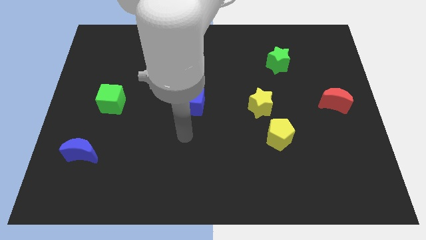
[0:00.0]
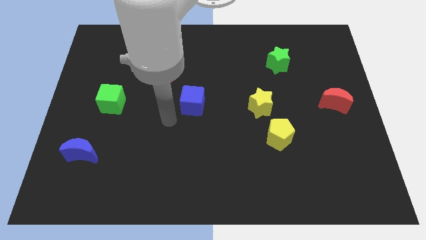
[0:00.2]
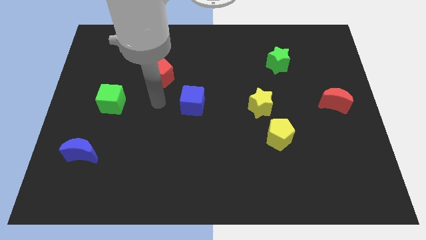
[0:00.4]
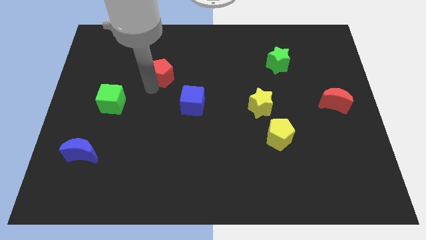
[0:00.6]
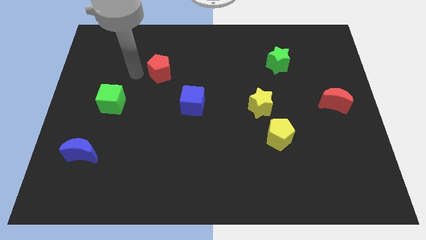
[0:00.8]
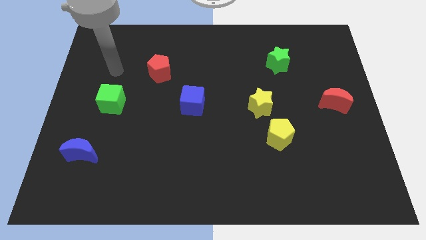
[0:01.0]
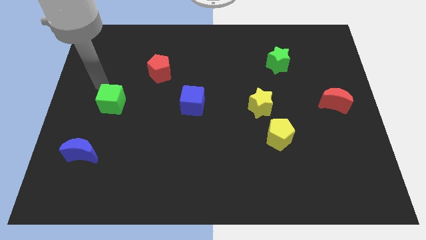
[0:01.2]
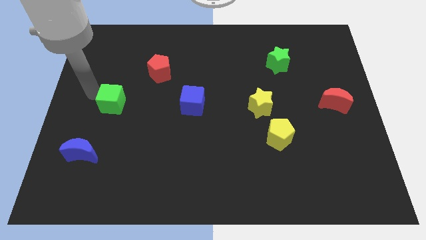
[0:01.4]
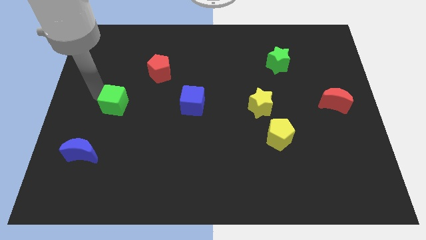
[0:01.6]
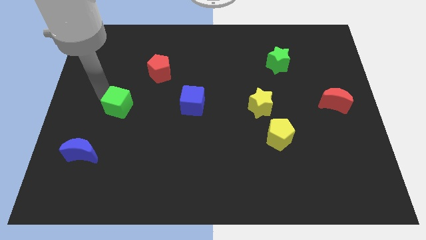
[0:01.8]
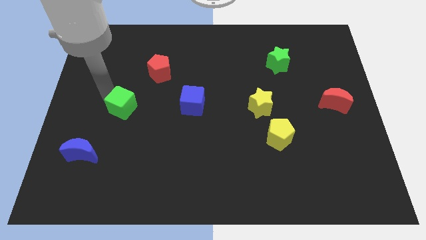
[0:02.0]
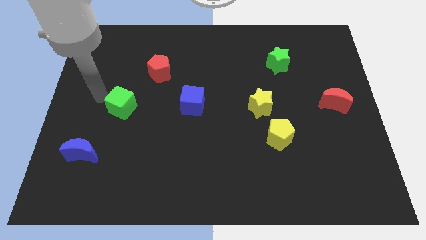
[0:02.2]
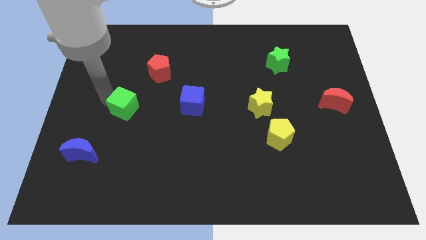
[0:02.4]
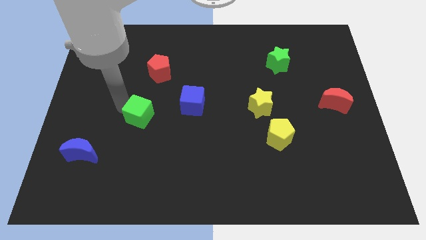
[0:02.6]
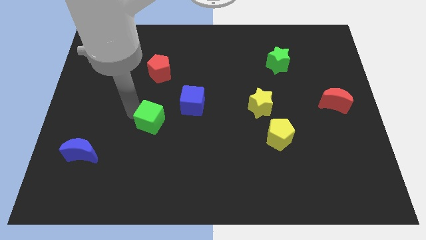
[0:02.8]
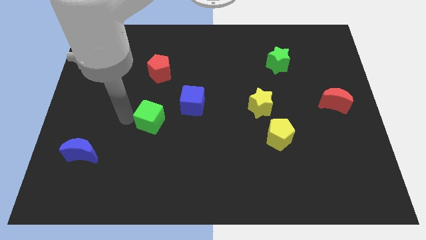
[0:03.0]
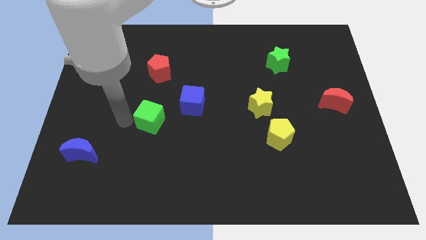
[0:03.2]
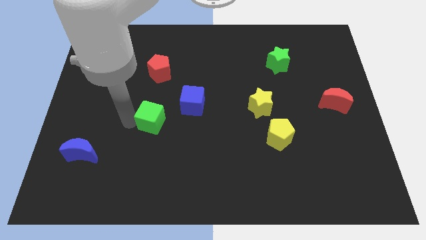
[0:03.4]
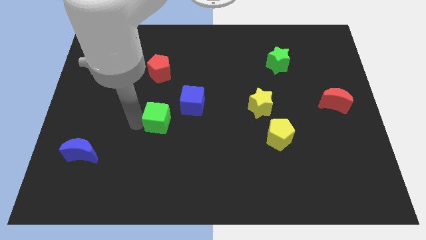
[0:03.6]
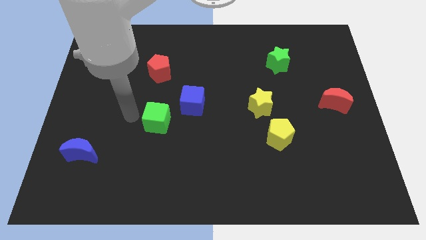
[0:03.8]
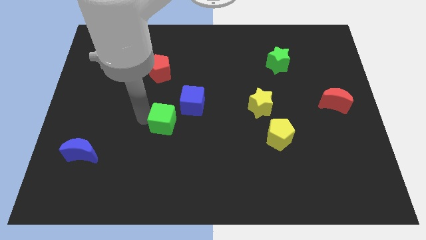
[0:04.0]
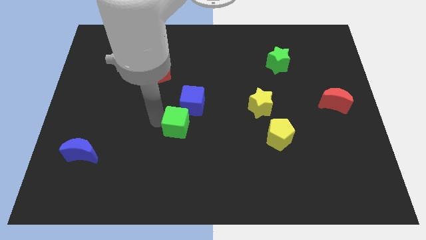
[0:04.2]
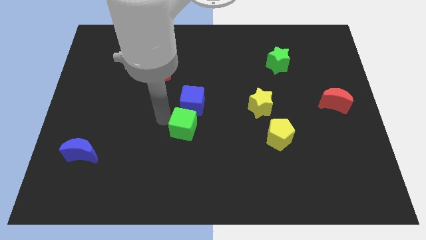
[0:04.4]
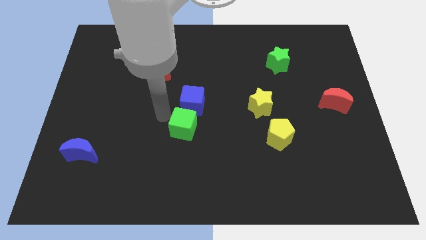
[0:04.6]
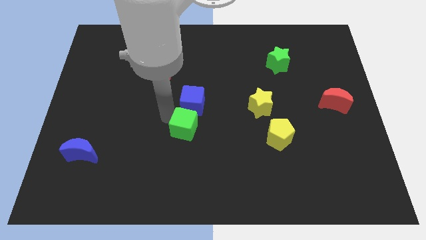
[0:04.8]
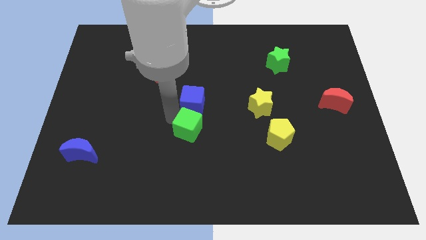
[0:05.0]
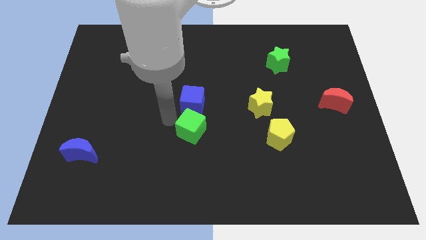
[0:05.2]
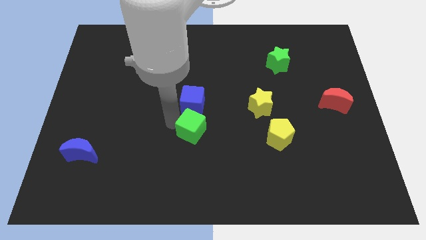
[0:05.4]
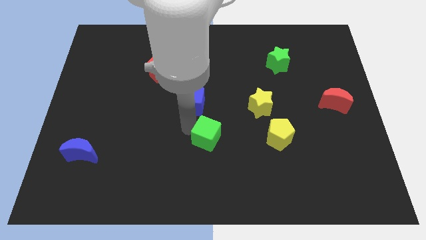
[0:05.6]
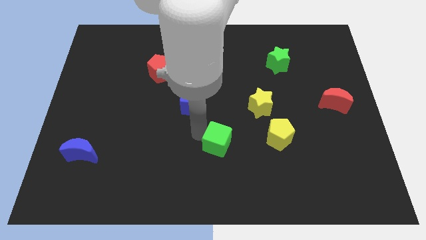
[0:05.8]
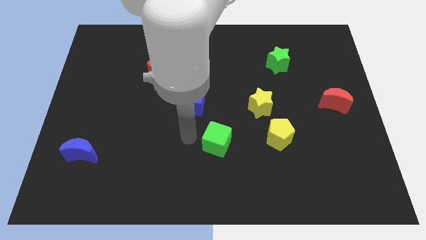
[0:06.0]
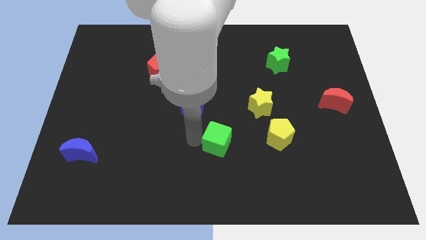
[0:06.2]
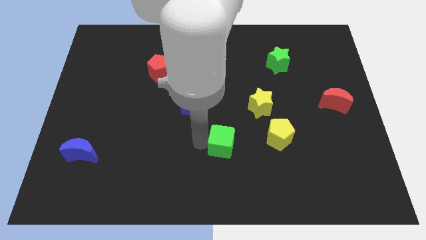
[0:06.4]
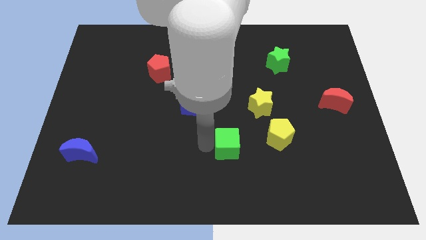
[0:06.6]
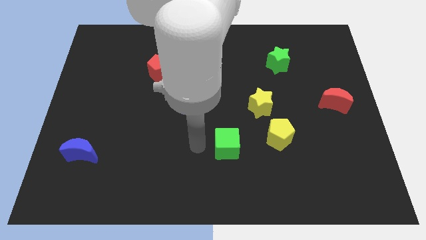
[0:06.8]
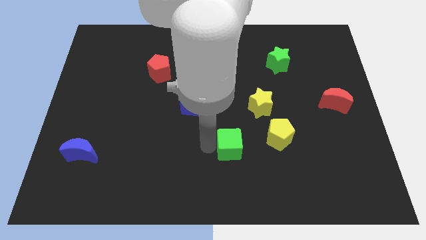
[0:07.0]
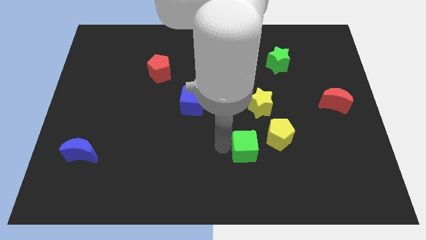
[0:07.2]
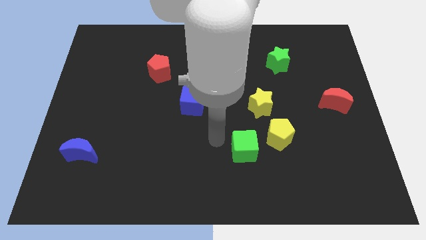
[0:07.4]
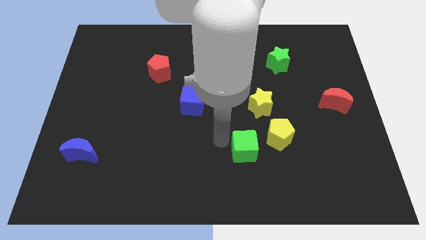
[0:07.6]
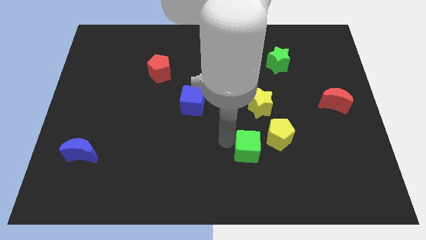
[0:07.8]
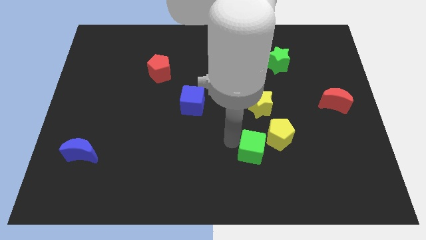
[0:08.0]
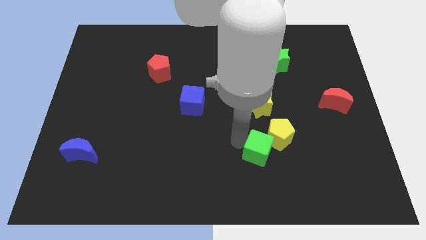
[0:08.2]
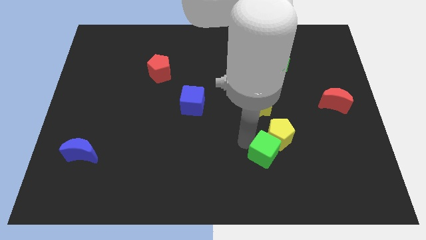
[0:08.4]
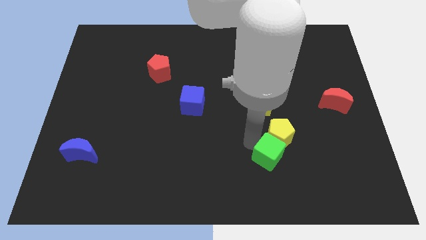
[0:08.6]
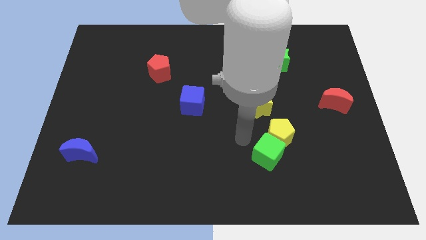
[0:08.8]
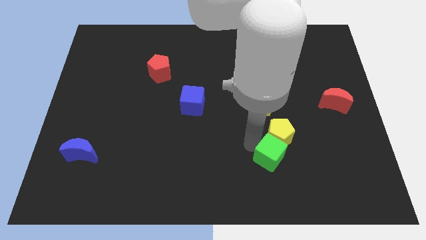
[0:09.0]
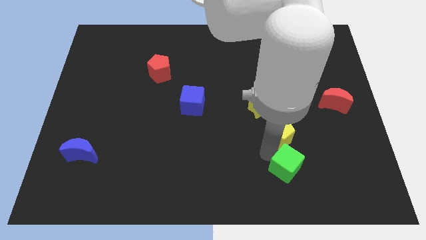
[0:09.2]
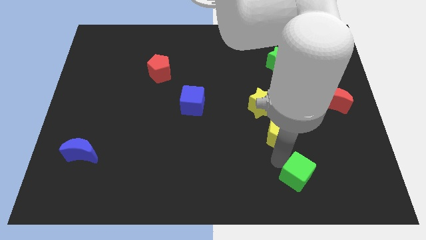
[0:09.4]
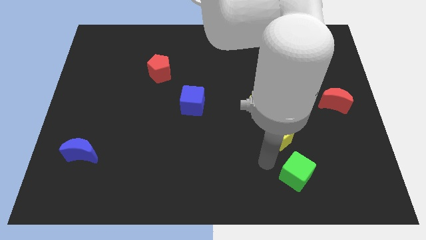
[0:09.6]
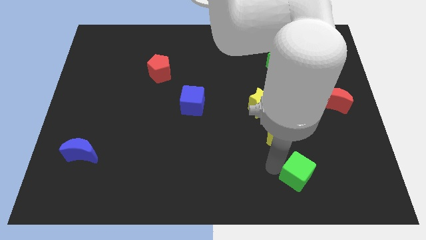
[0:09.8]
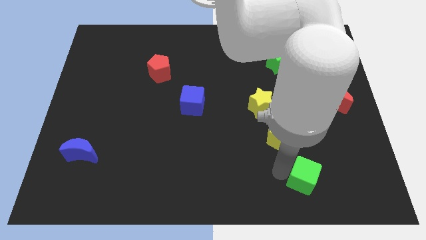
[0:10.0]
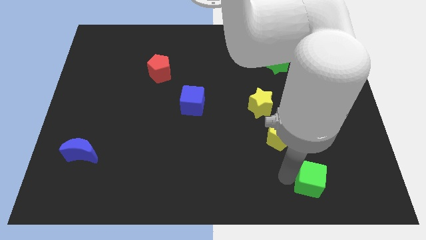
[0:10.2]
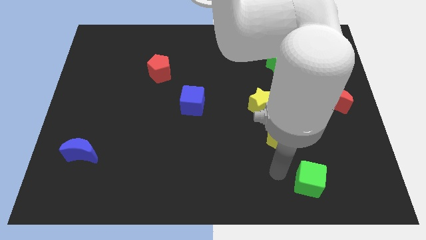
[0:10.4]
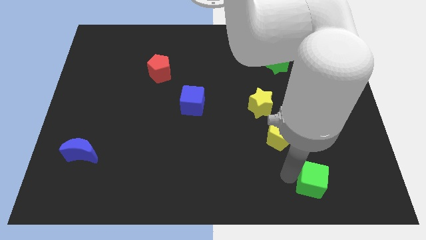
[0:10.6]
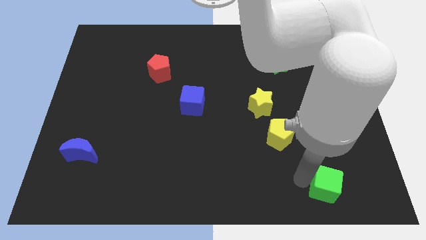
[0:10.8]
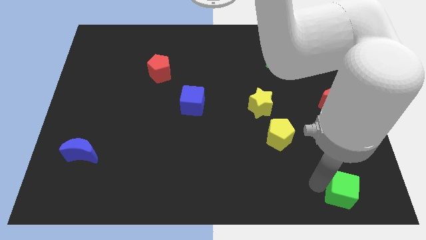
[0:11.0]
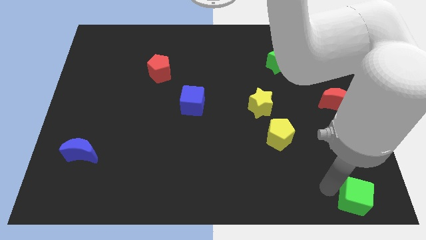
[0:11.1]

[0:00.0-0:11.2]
slide the green cube to the bottom right
